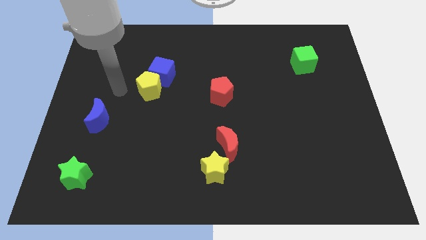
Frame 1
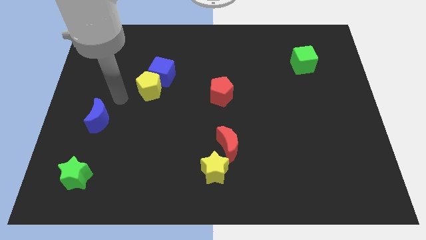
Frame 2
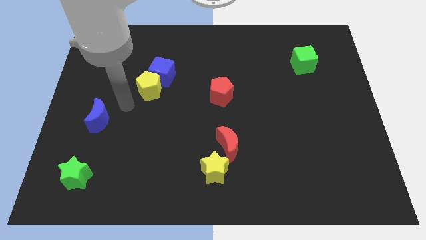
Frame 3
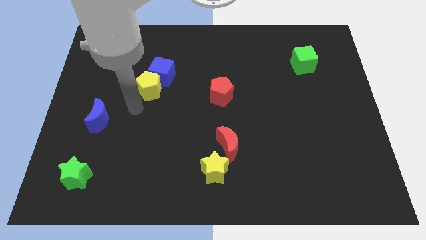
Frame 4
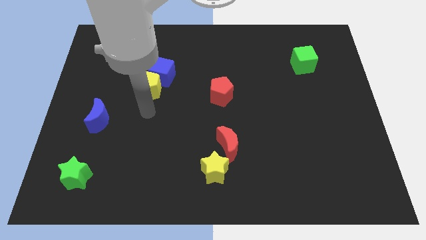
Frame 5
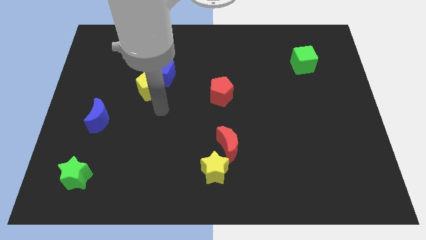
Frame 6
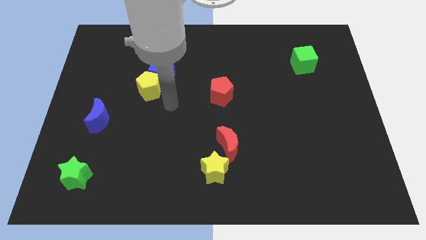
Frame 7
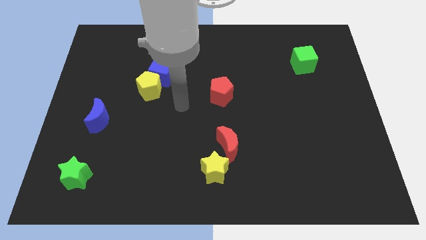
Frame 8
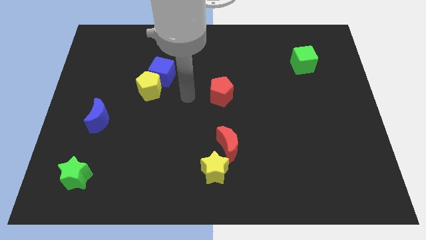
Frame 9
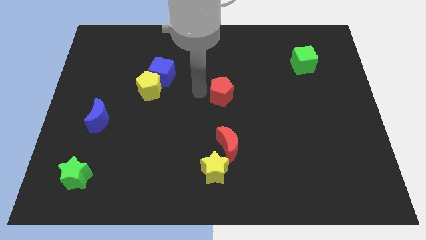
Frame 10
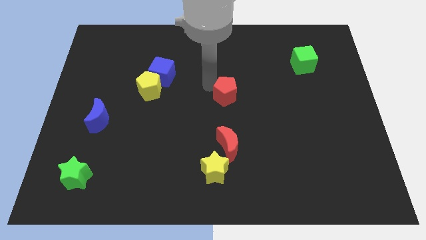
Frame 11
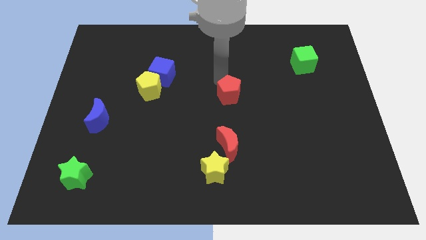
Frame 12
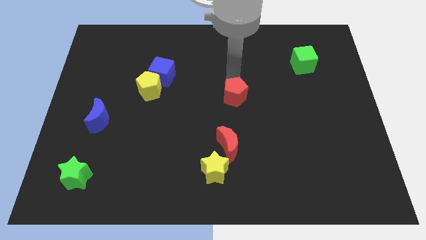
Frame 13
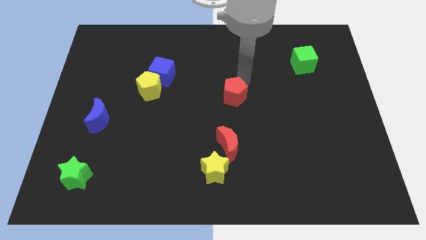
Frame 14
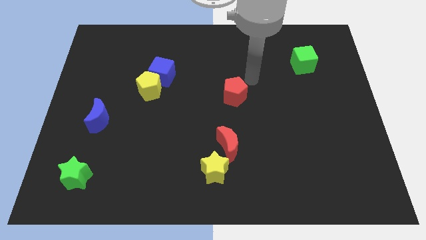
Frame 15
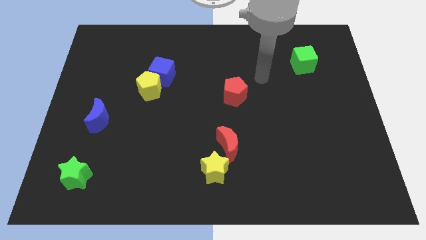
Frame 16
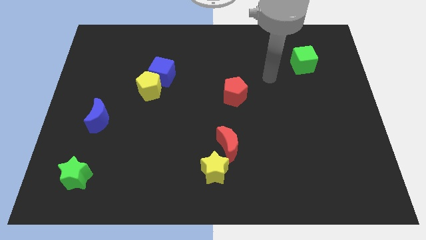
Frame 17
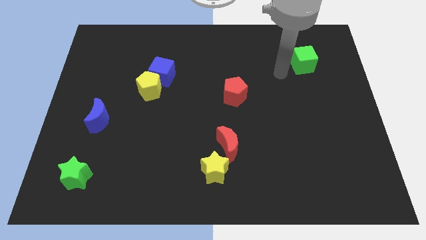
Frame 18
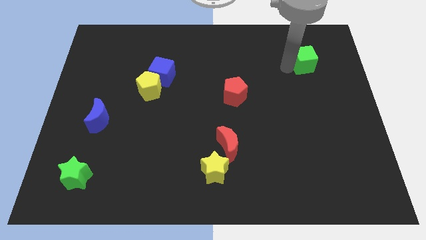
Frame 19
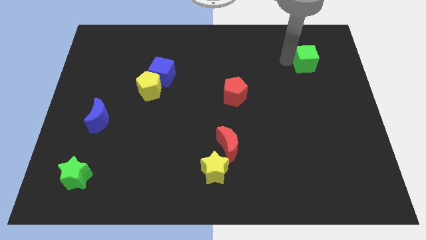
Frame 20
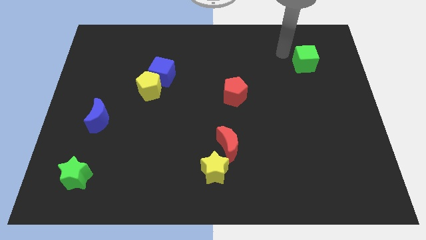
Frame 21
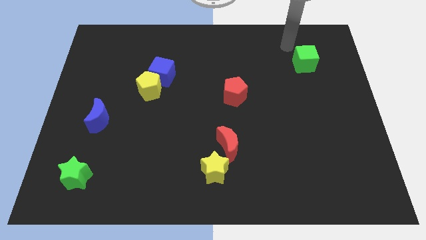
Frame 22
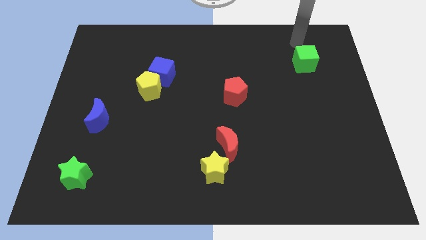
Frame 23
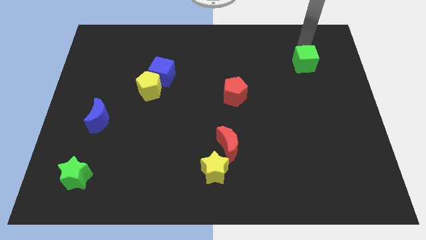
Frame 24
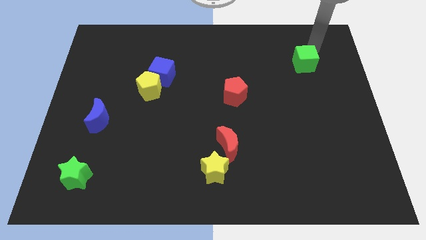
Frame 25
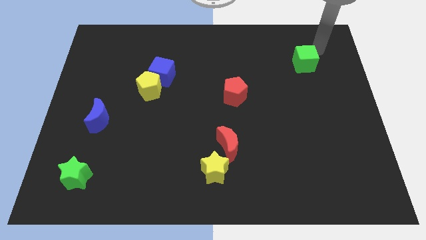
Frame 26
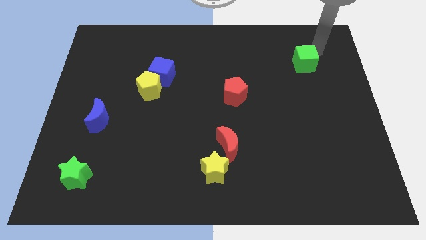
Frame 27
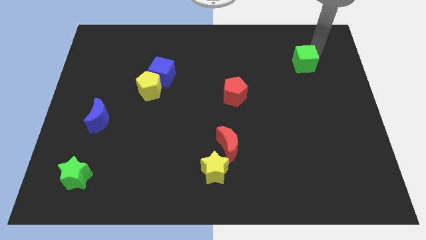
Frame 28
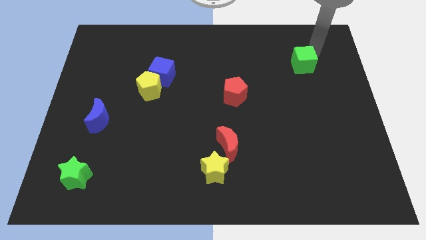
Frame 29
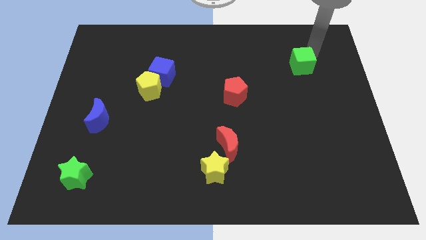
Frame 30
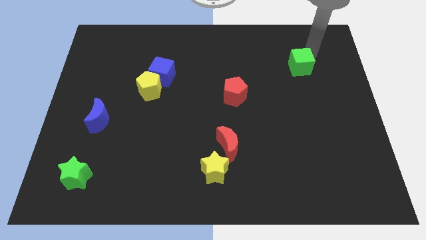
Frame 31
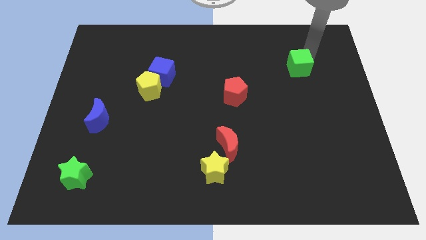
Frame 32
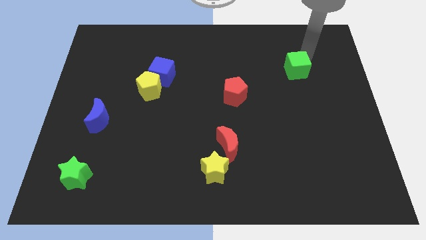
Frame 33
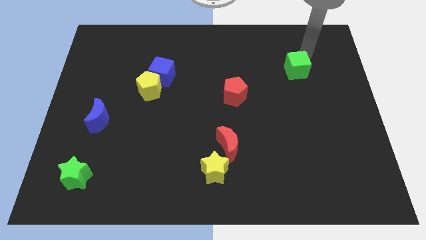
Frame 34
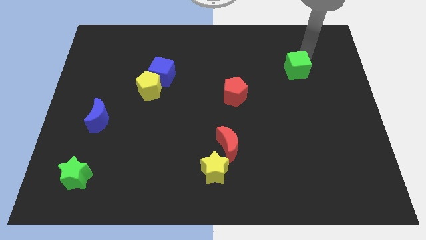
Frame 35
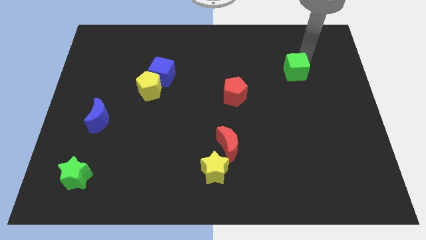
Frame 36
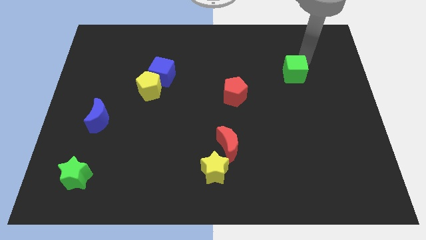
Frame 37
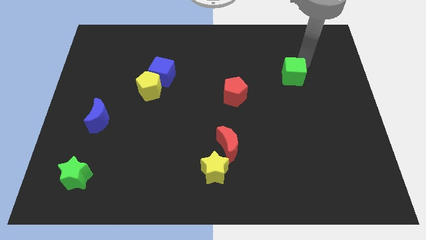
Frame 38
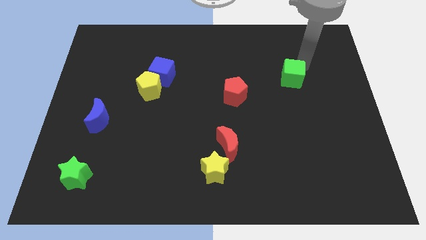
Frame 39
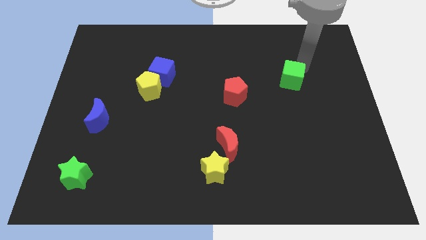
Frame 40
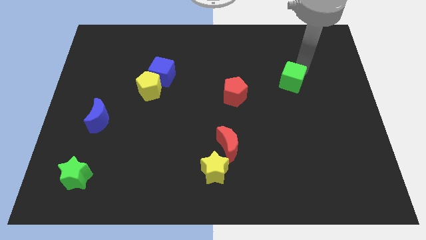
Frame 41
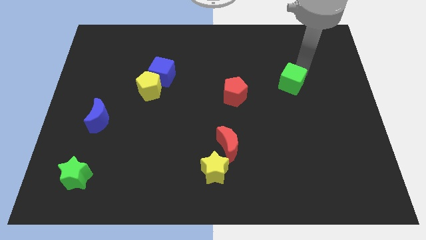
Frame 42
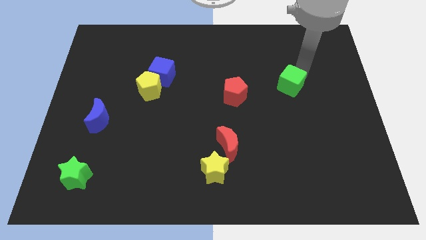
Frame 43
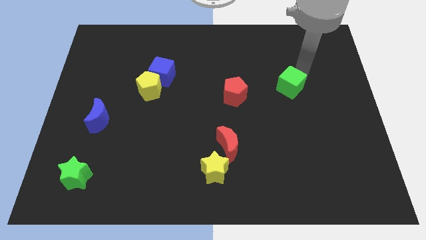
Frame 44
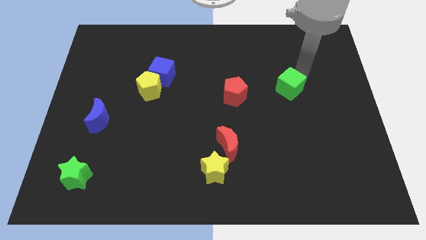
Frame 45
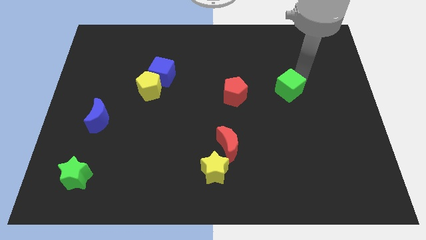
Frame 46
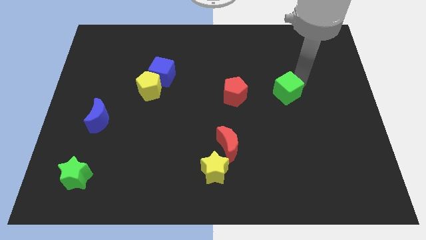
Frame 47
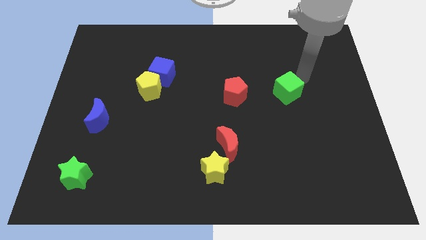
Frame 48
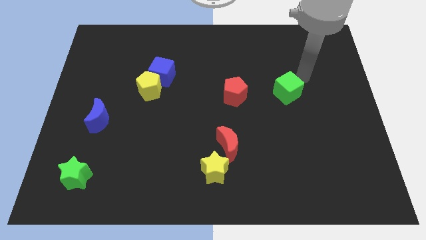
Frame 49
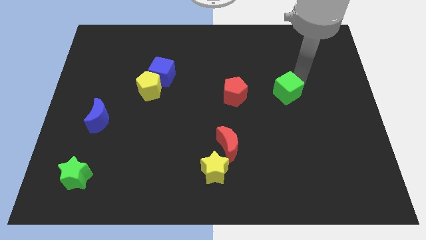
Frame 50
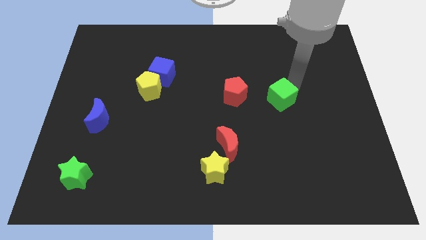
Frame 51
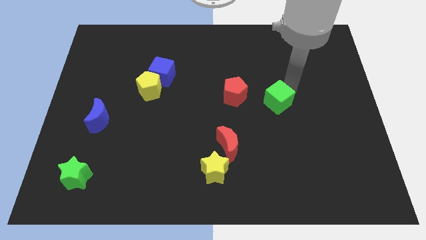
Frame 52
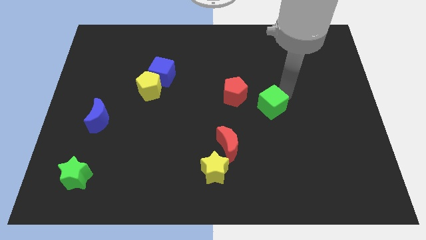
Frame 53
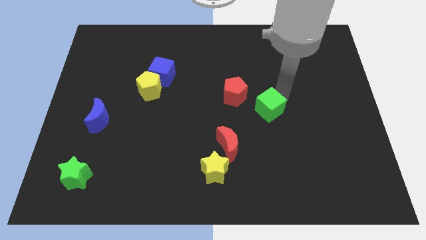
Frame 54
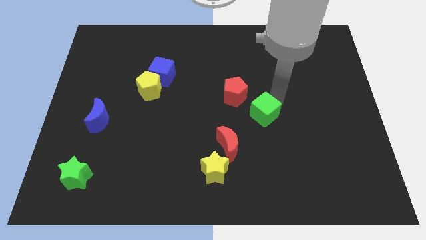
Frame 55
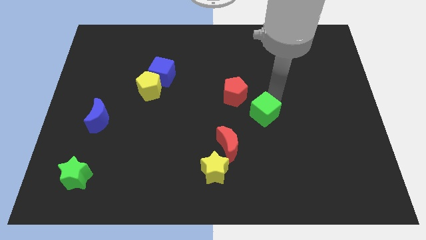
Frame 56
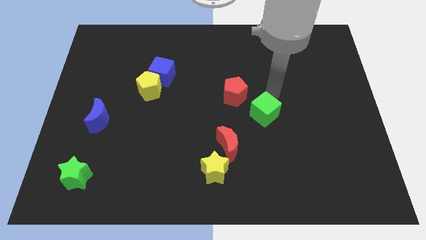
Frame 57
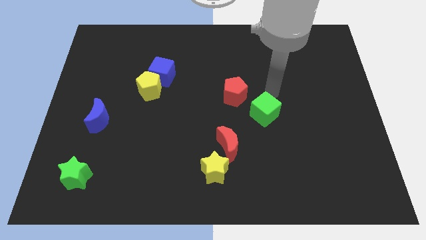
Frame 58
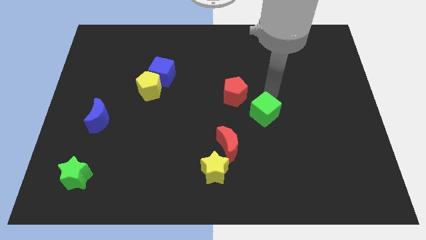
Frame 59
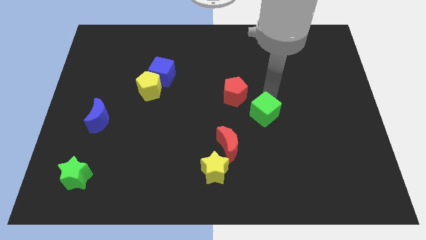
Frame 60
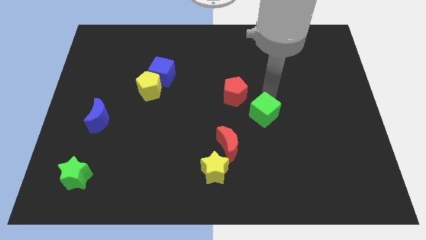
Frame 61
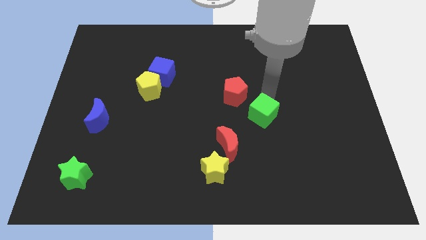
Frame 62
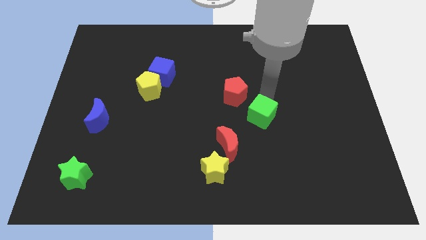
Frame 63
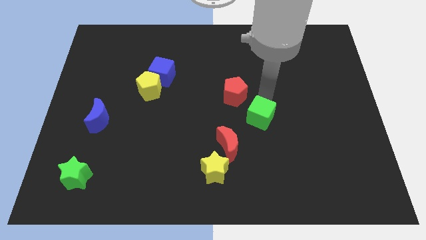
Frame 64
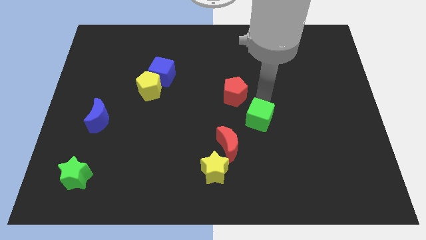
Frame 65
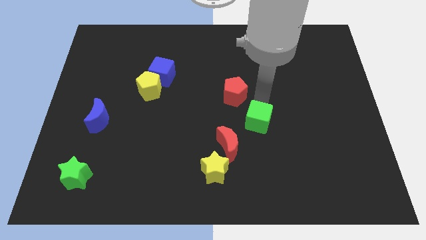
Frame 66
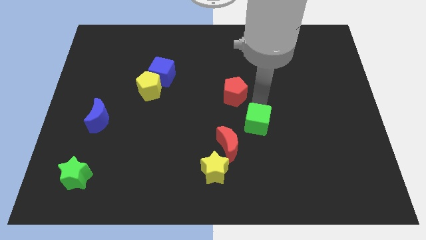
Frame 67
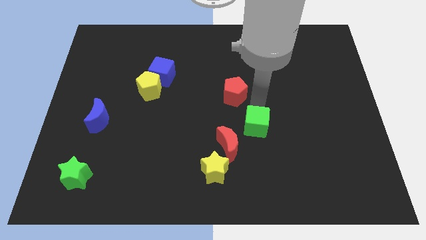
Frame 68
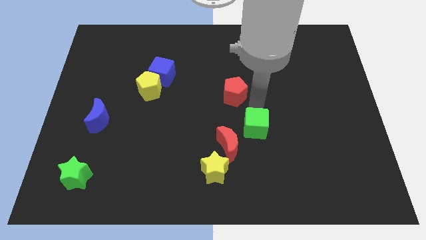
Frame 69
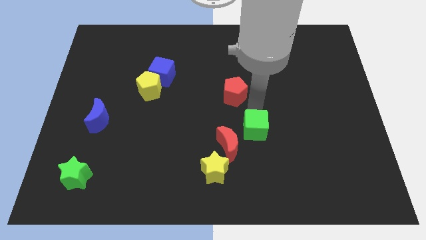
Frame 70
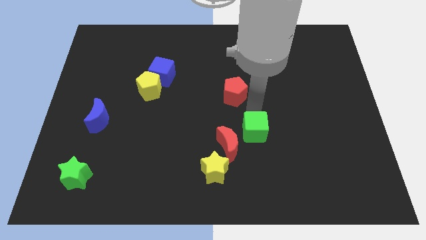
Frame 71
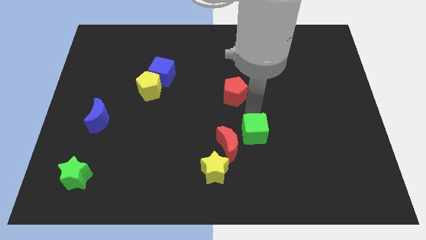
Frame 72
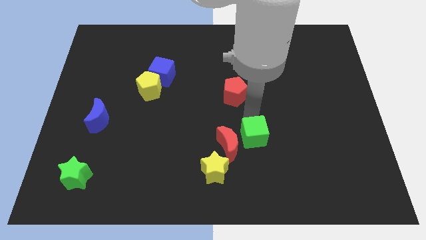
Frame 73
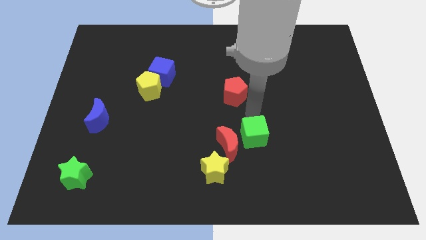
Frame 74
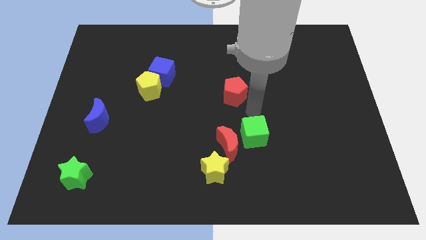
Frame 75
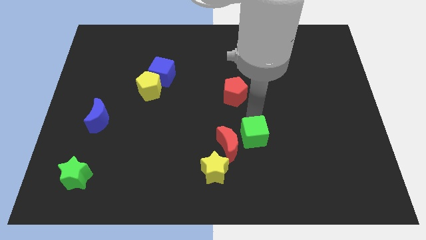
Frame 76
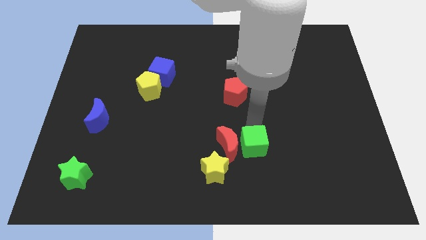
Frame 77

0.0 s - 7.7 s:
put the green cube to the bottom right side of the red moon

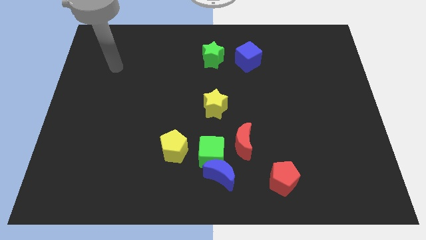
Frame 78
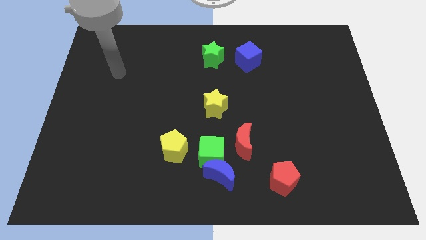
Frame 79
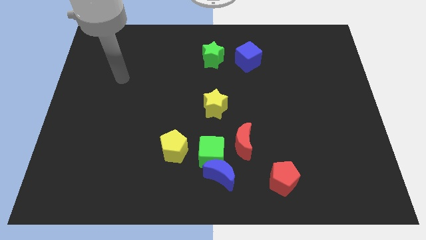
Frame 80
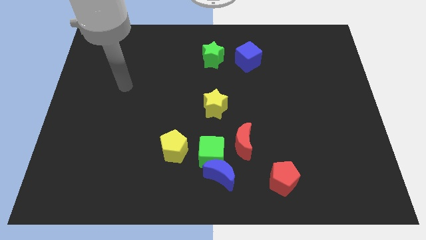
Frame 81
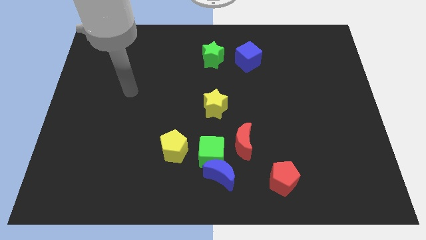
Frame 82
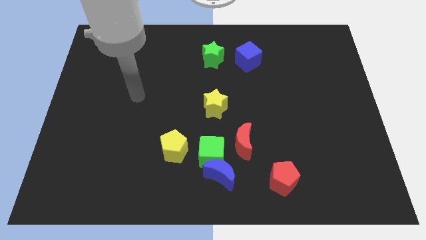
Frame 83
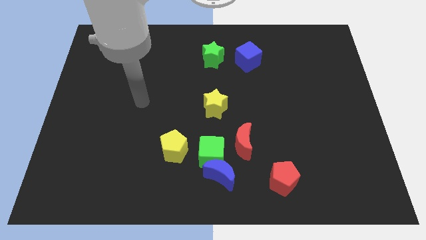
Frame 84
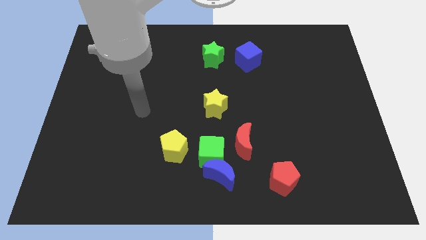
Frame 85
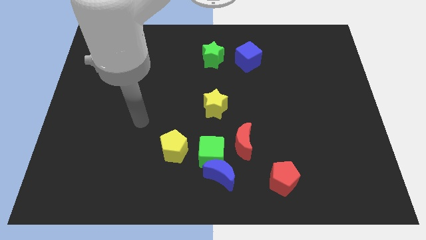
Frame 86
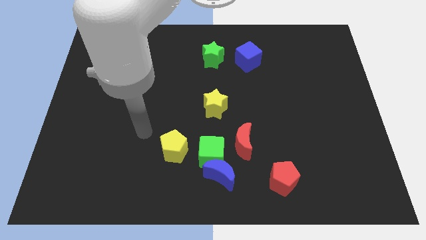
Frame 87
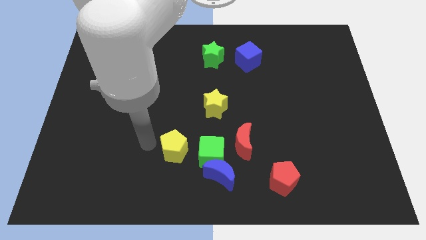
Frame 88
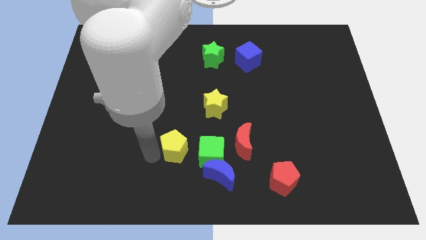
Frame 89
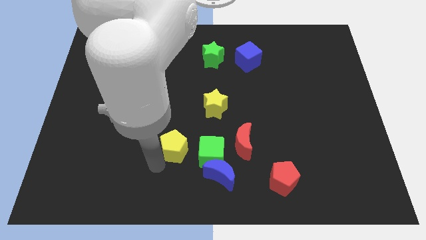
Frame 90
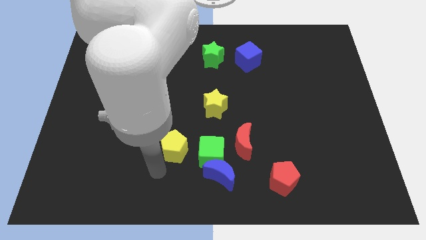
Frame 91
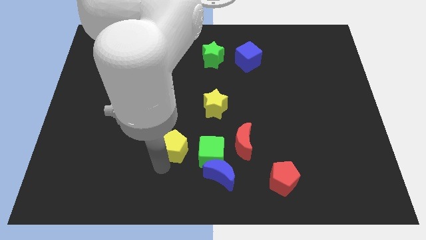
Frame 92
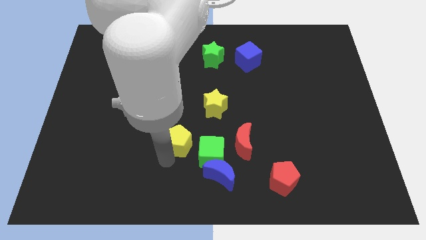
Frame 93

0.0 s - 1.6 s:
push the yellow pentagon diagonally down and to the left of the yellow star
